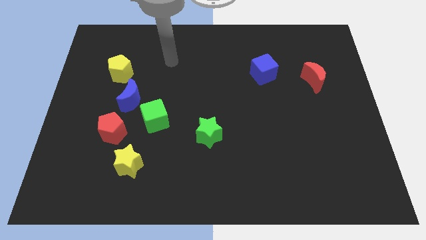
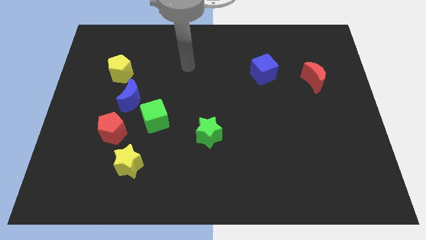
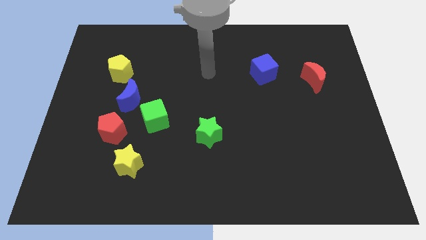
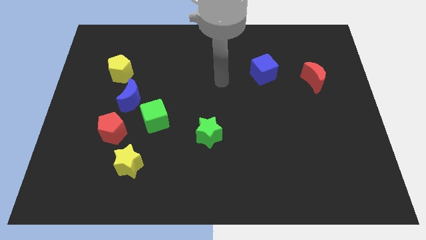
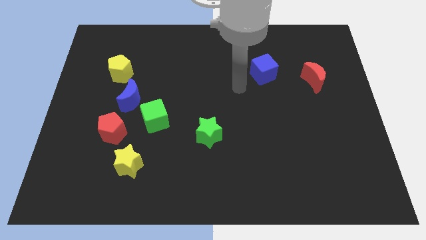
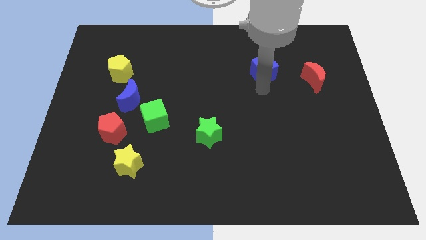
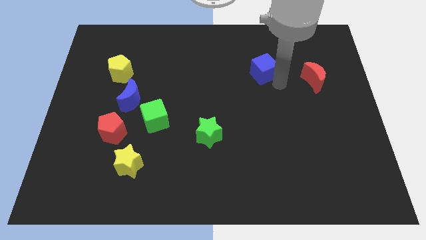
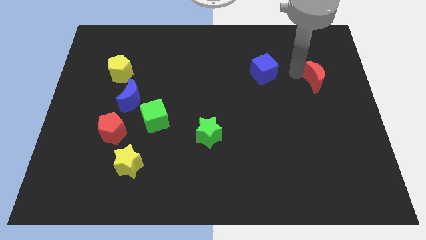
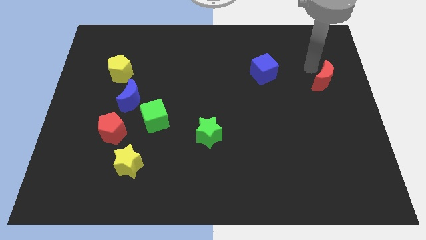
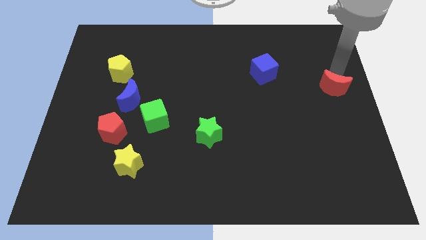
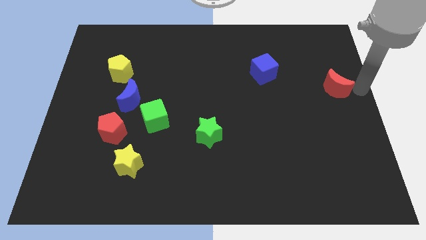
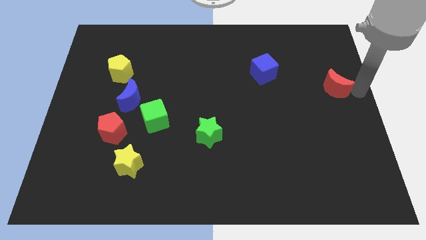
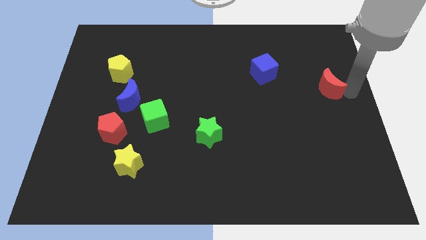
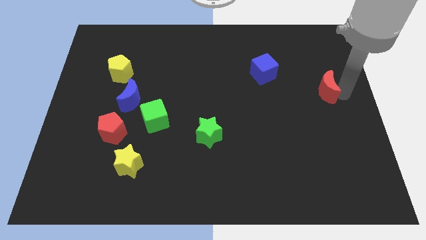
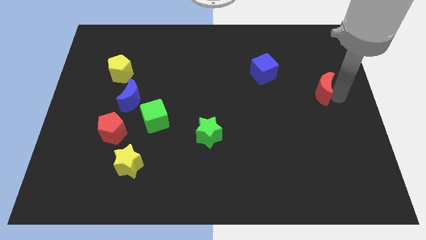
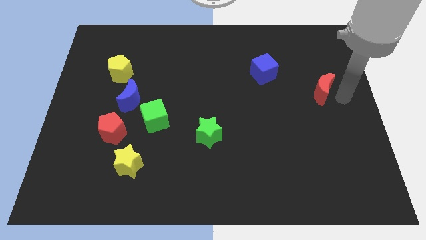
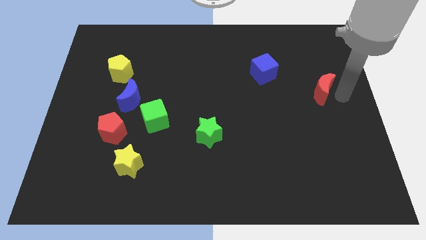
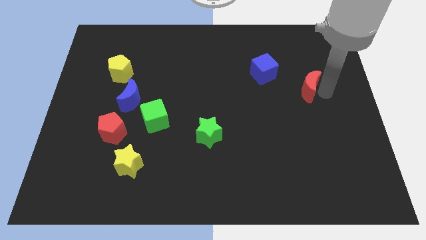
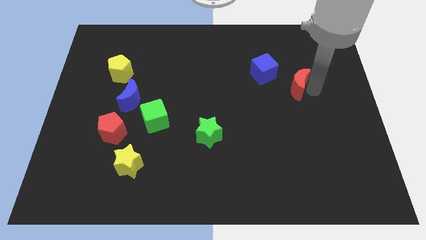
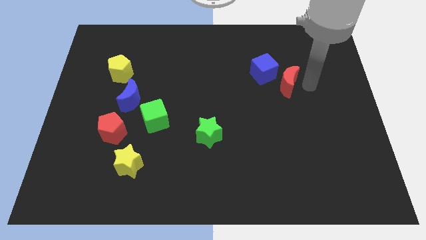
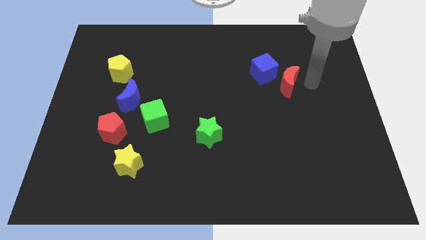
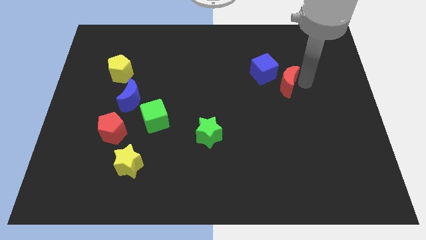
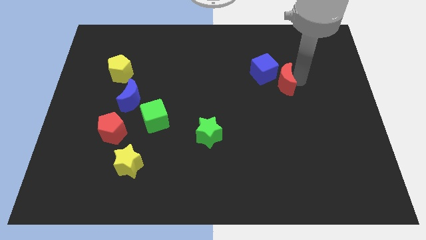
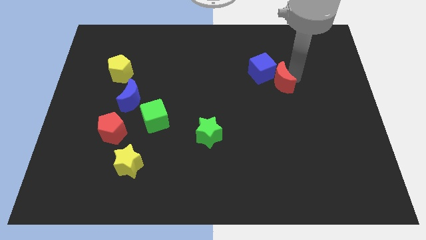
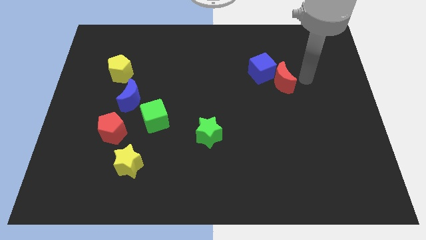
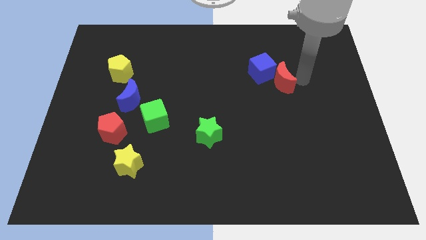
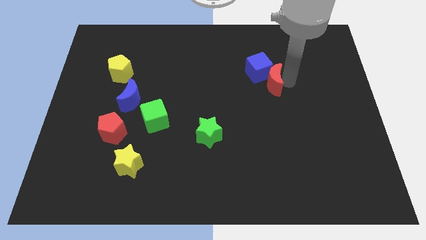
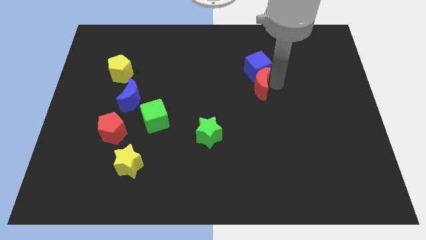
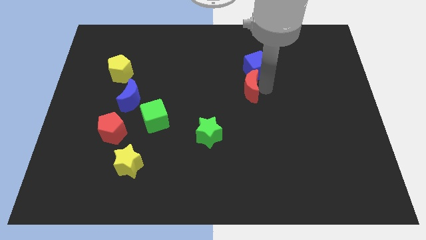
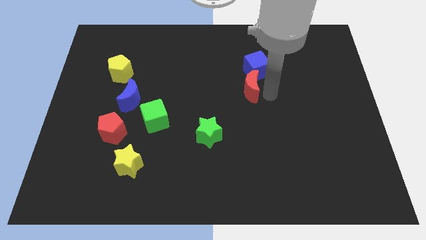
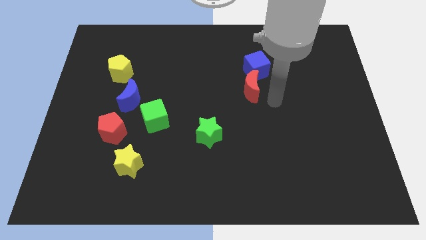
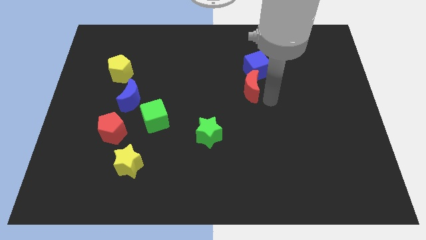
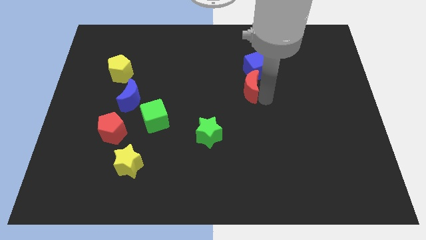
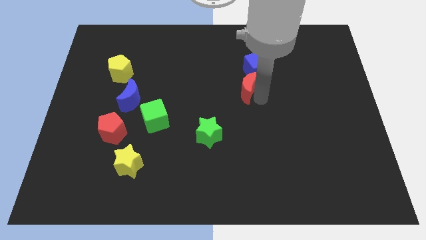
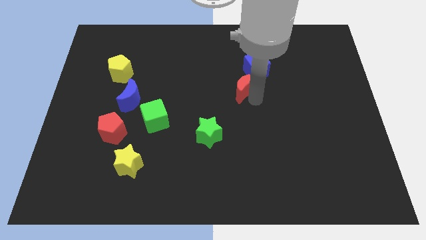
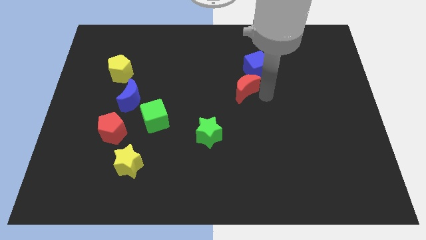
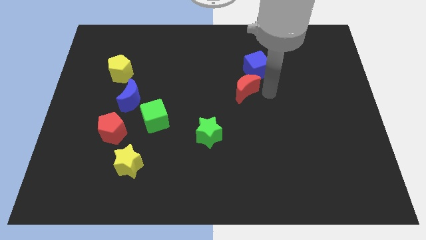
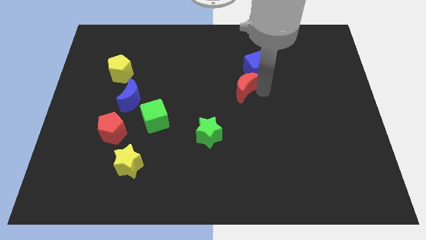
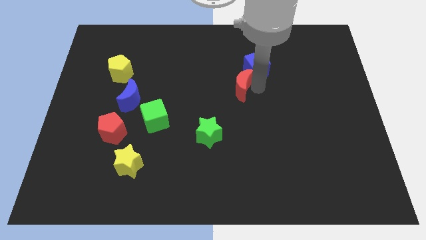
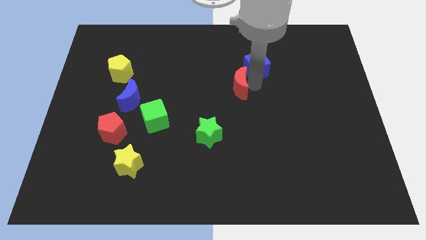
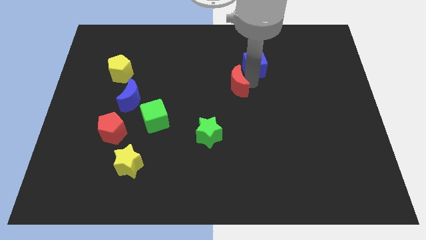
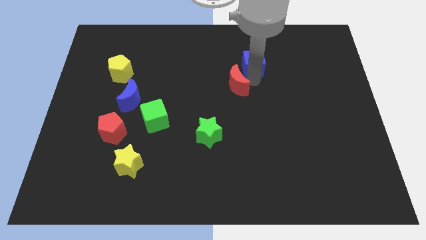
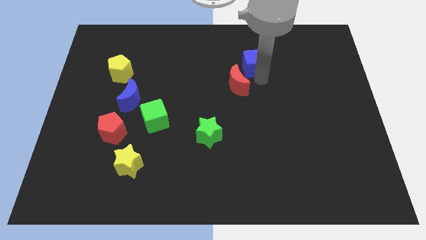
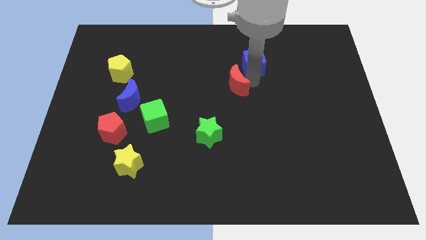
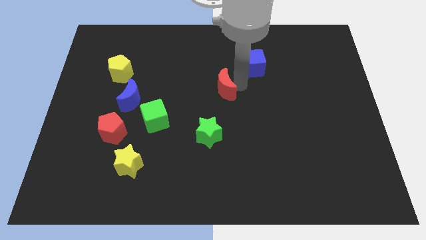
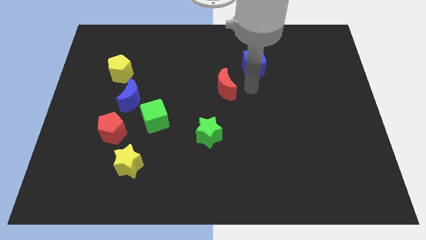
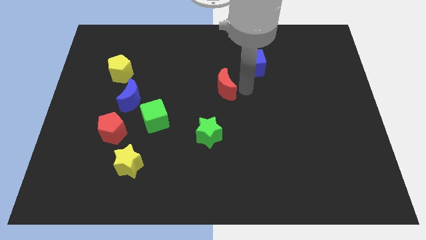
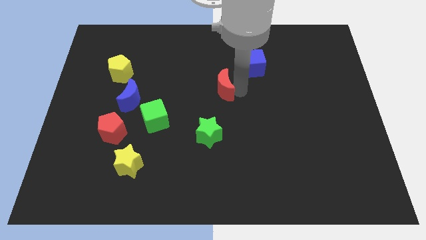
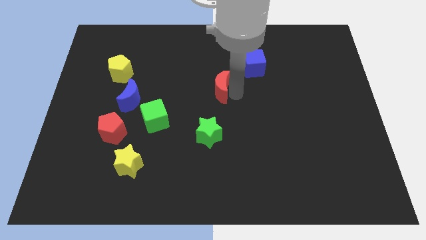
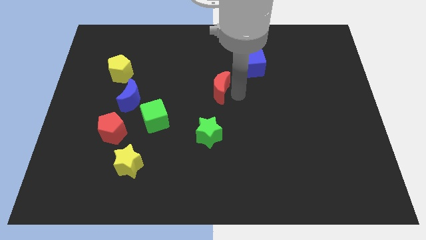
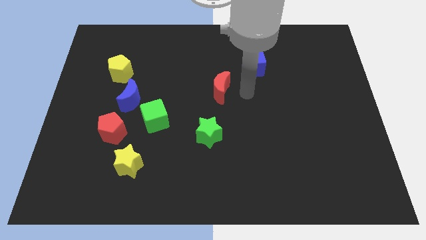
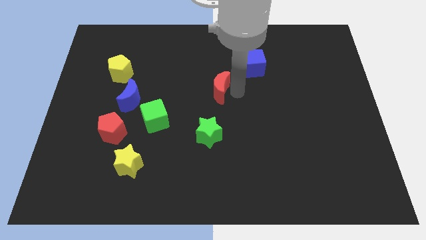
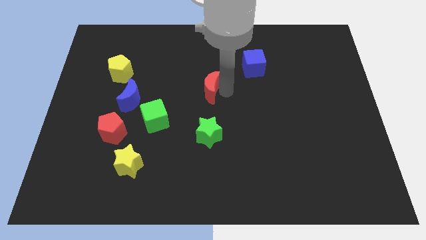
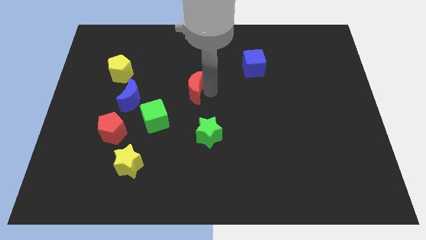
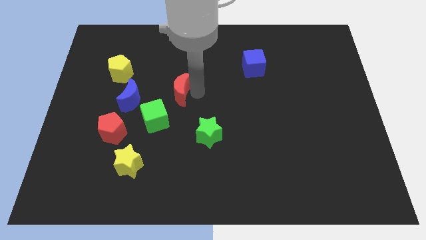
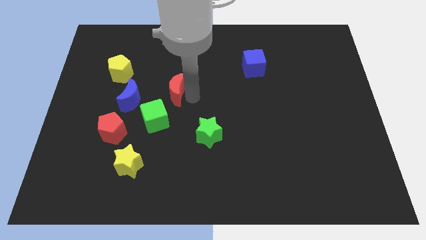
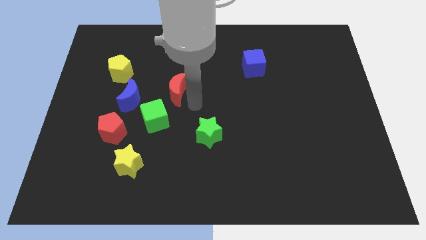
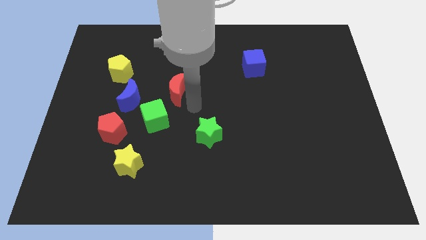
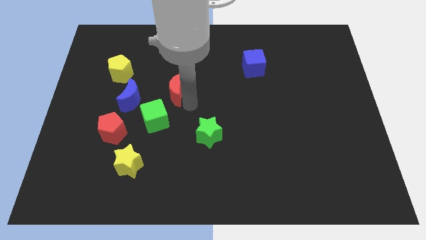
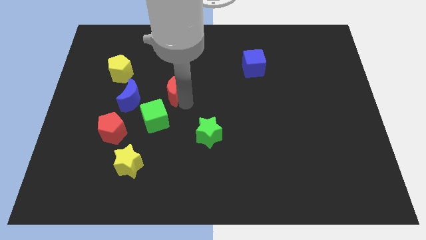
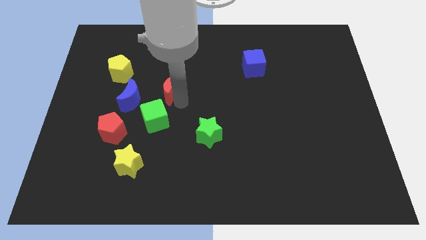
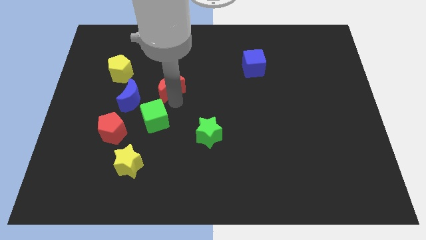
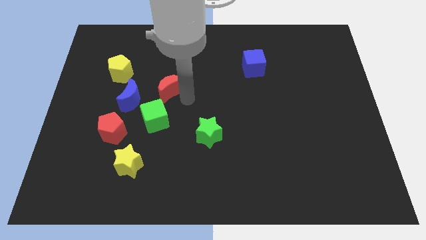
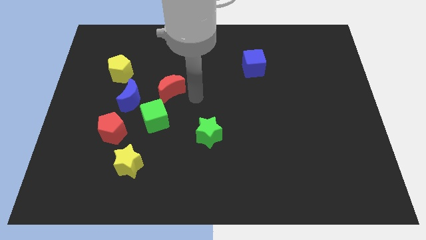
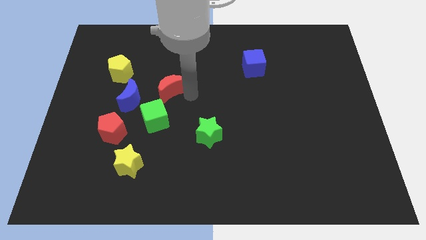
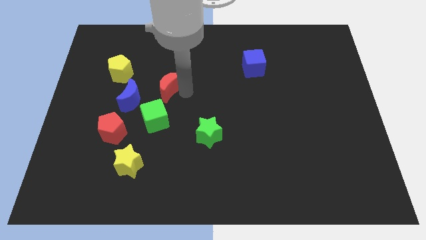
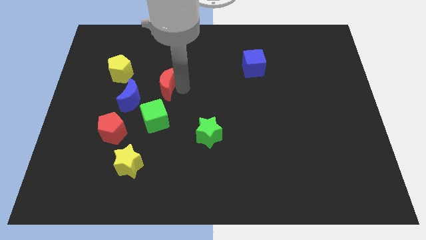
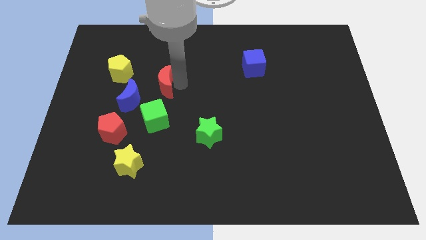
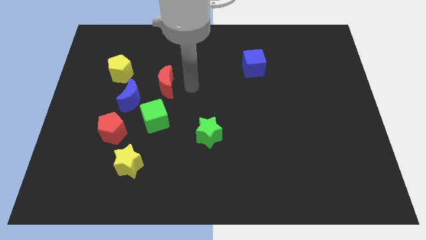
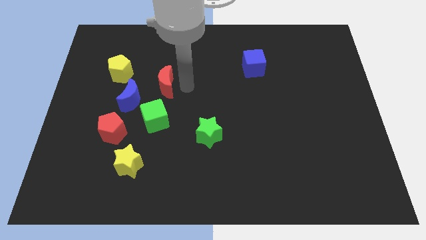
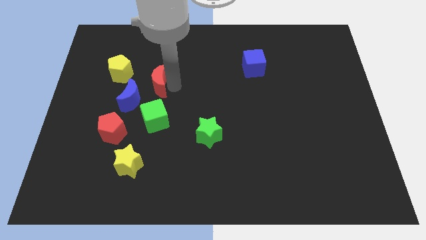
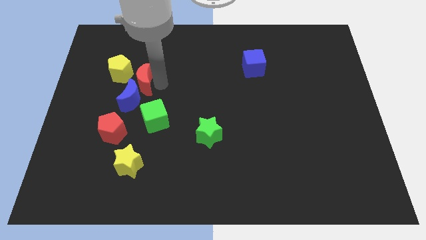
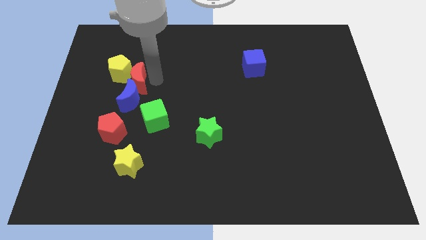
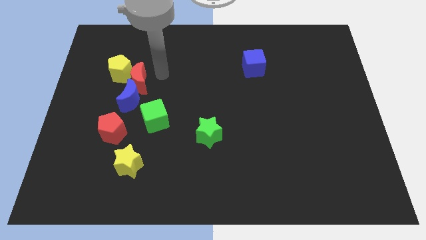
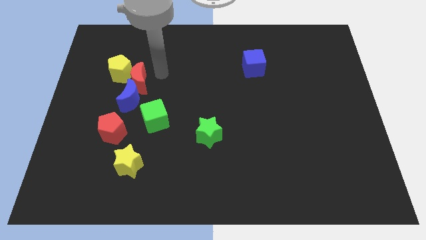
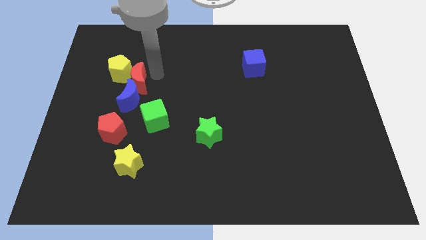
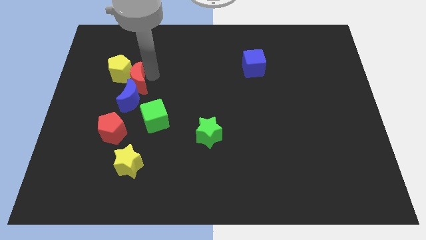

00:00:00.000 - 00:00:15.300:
move the red moon to the bottom of the yellow pentagon

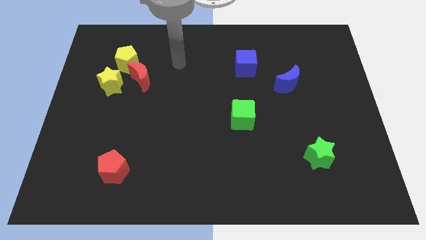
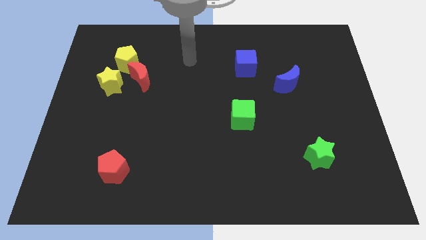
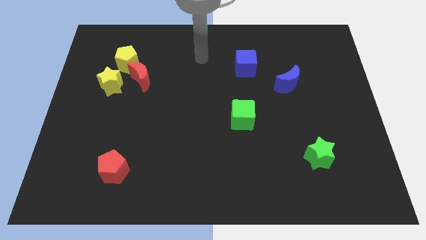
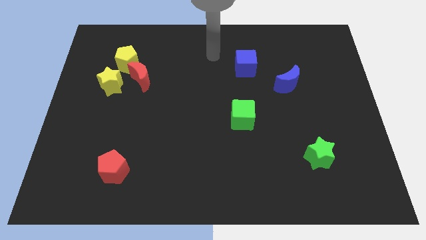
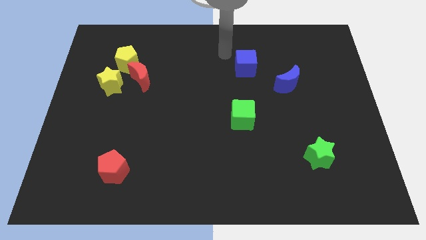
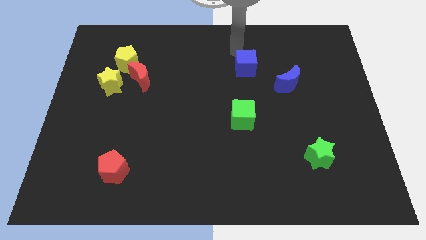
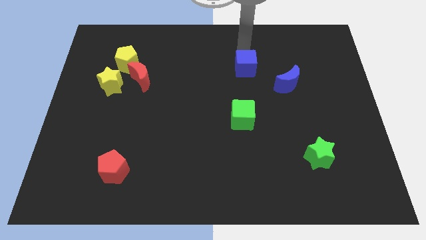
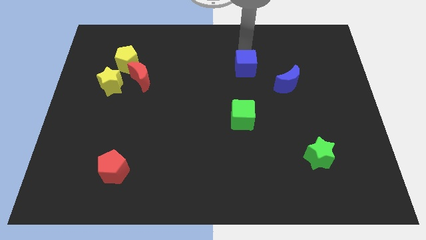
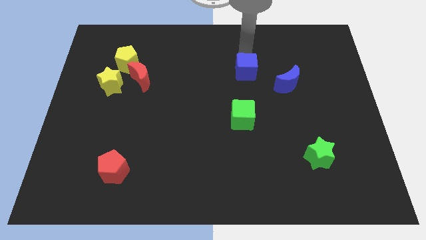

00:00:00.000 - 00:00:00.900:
push the blue cube to the left of the blue moon
